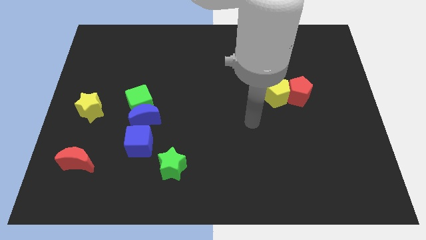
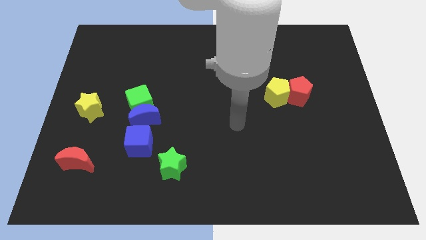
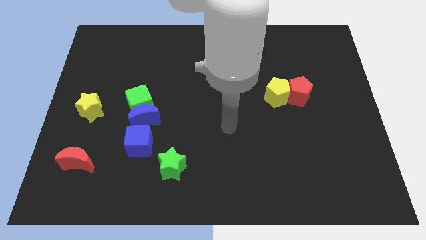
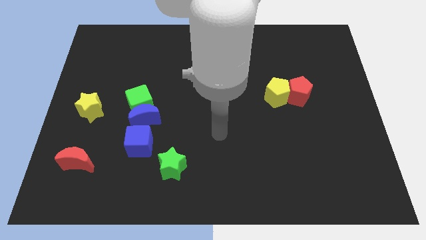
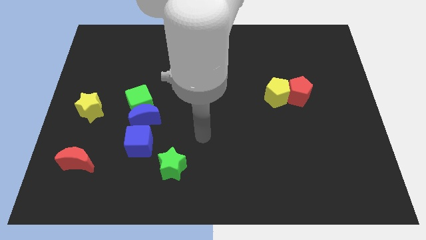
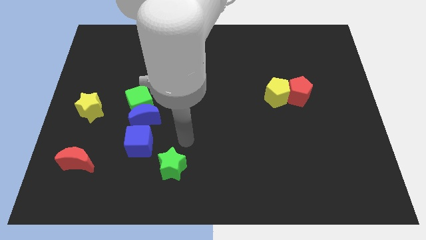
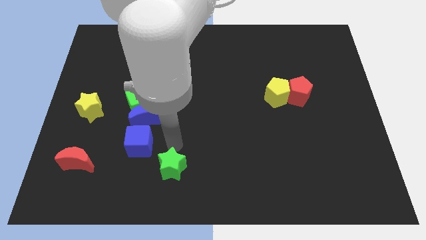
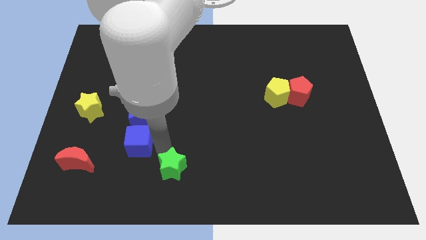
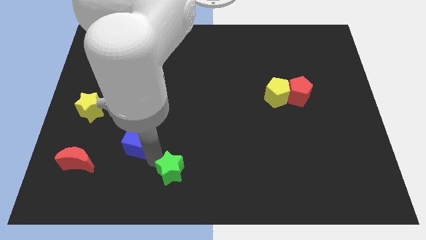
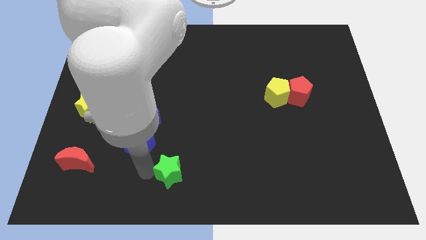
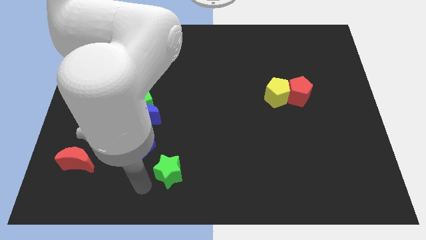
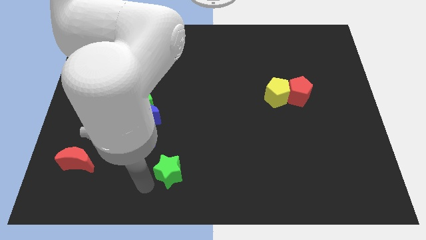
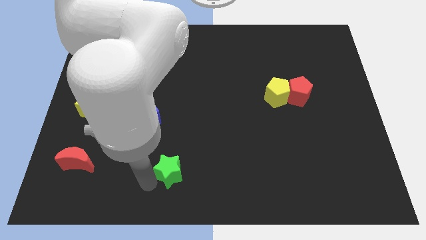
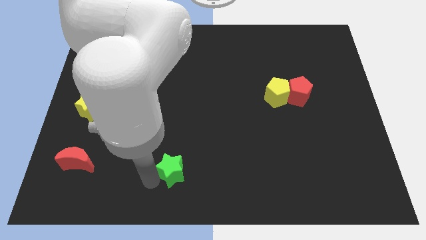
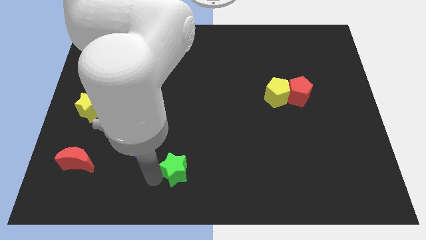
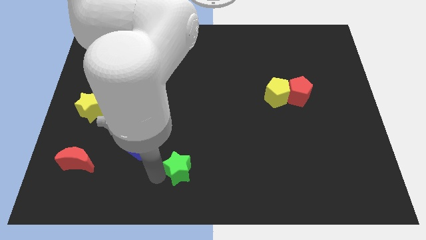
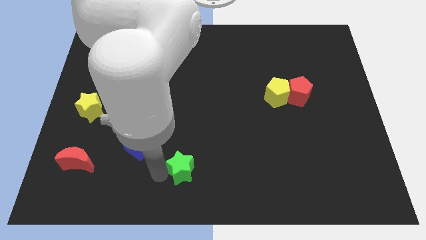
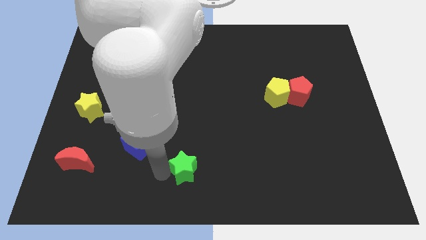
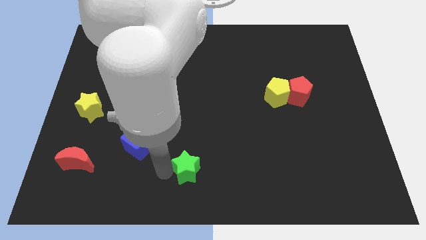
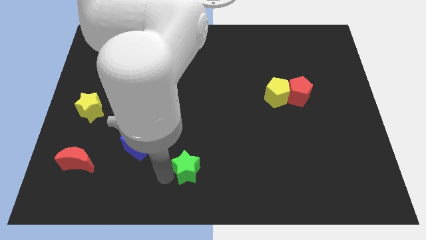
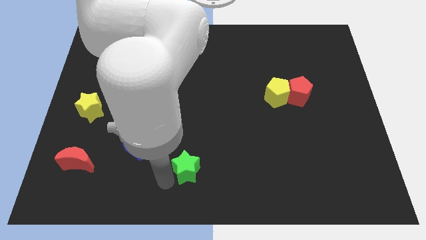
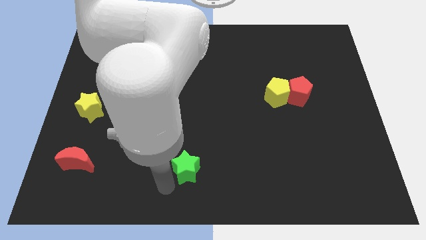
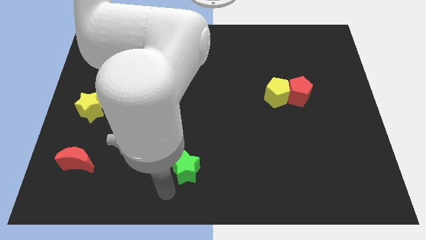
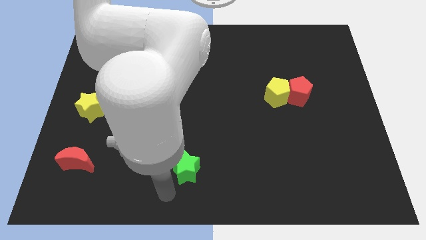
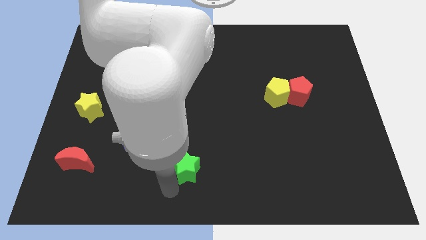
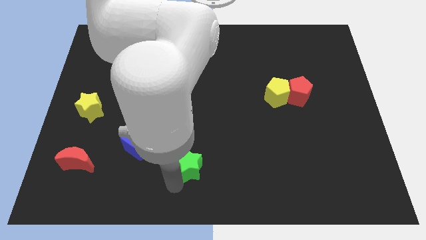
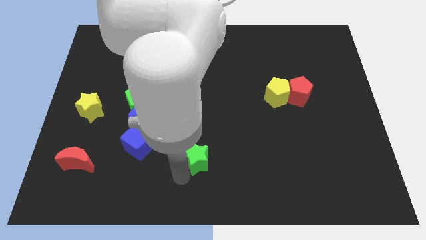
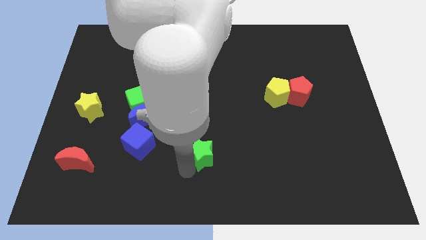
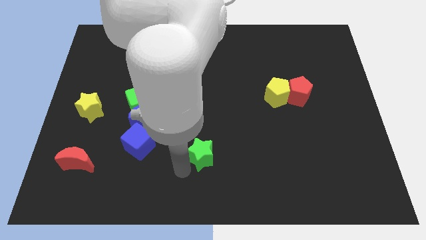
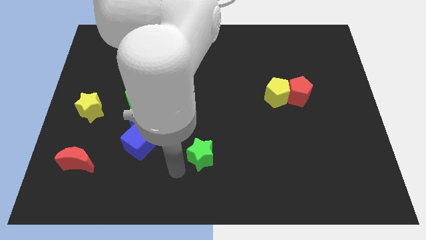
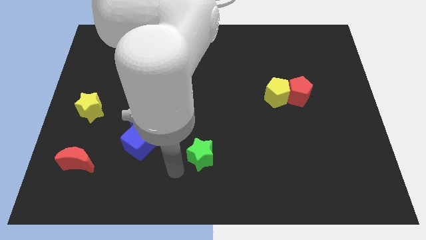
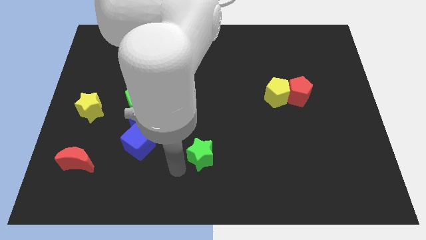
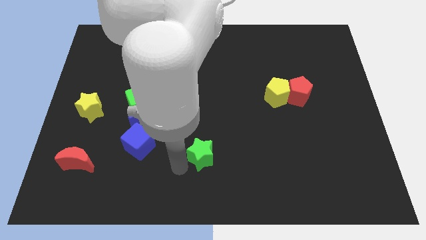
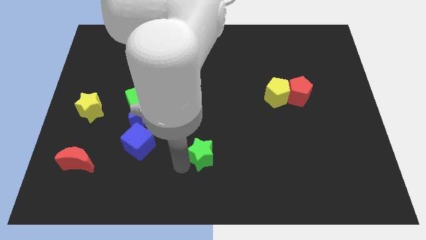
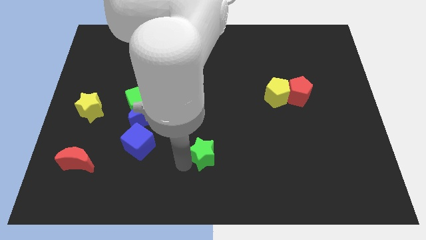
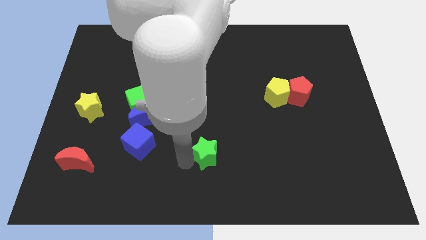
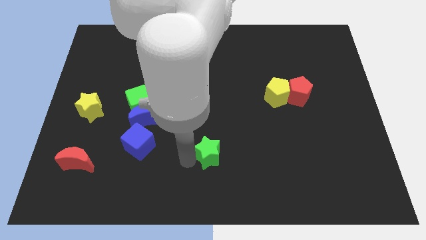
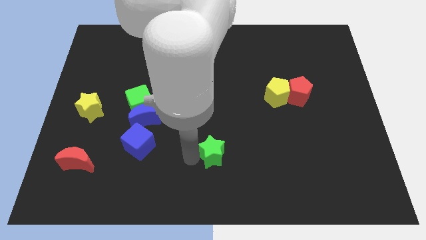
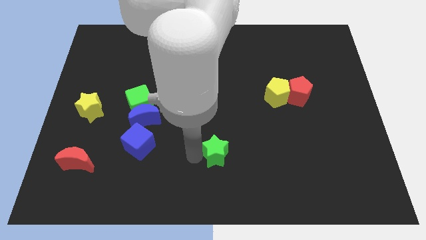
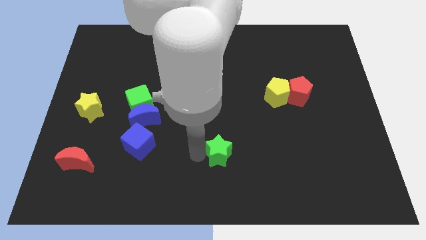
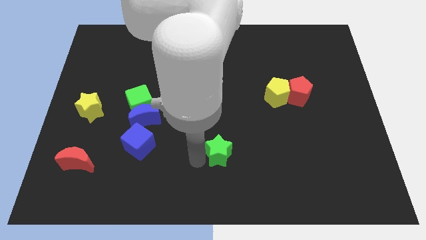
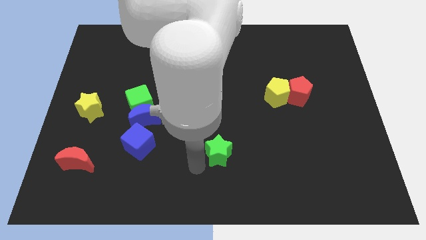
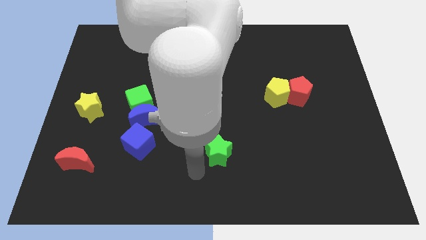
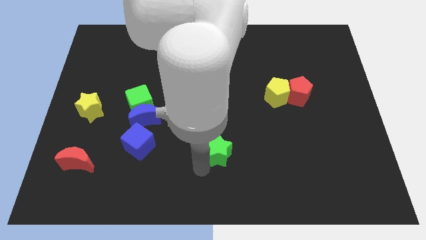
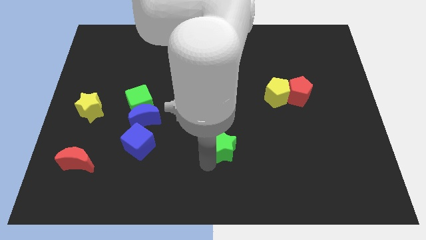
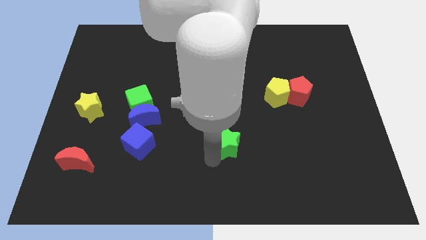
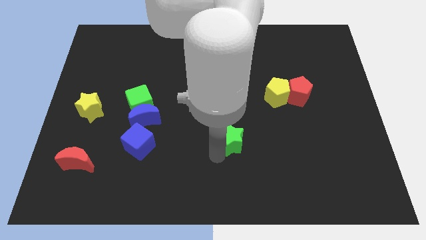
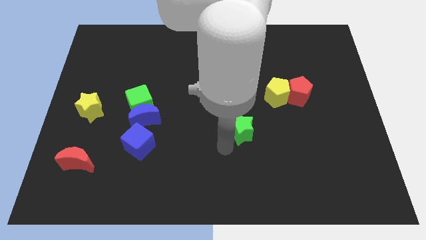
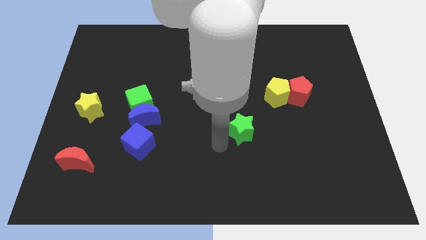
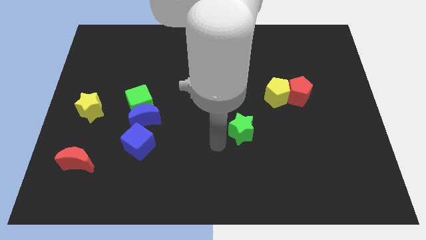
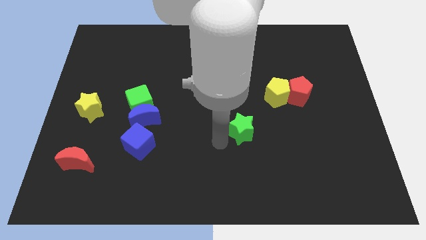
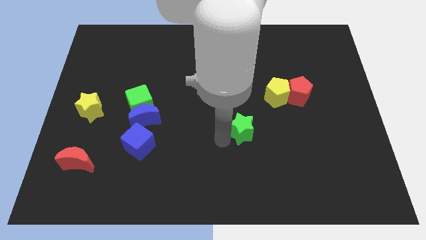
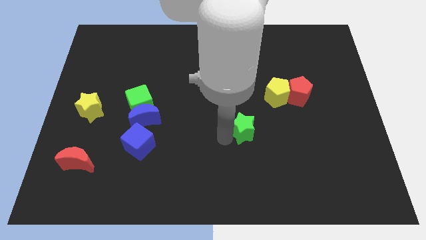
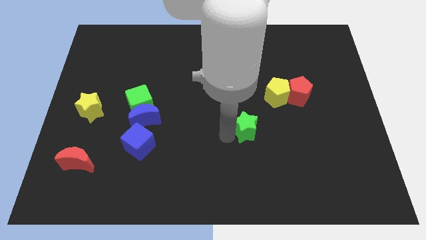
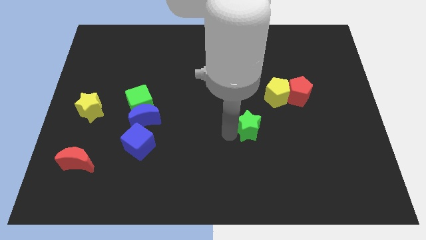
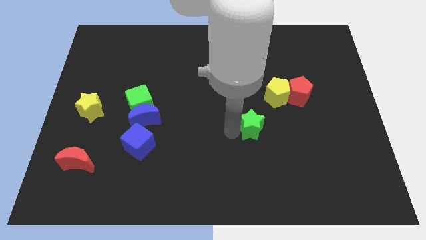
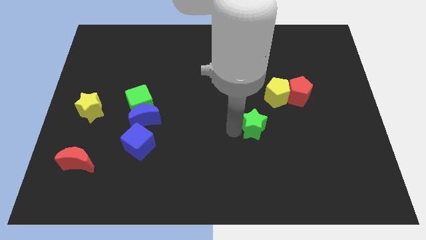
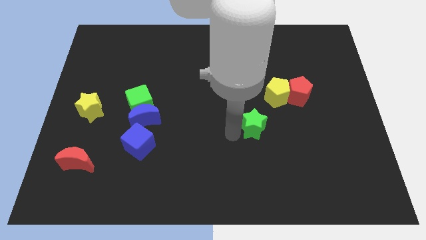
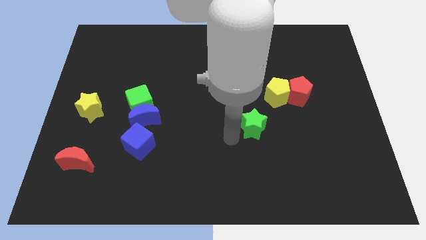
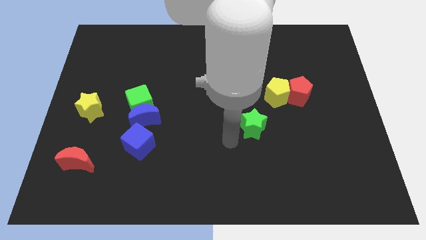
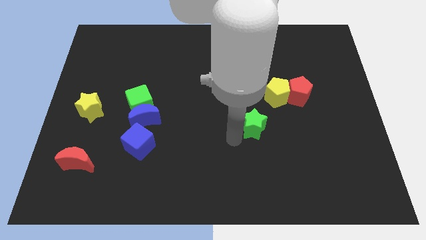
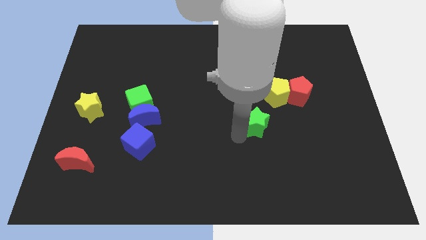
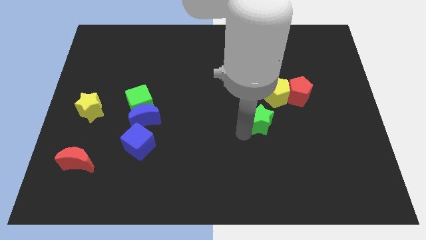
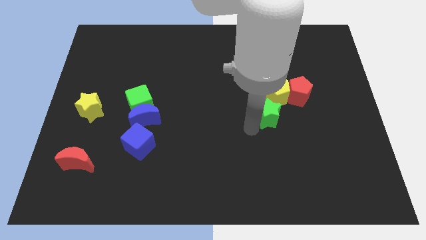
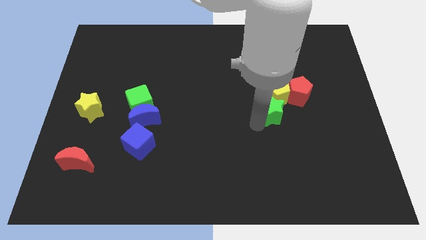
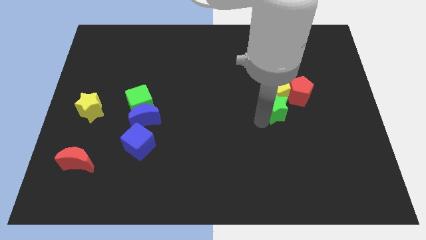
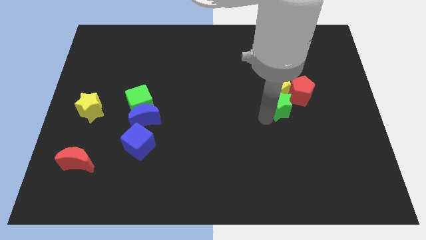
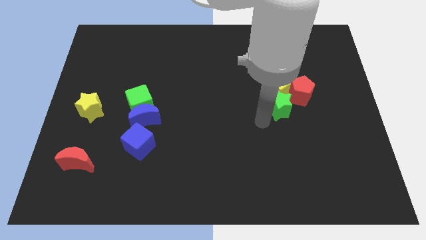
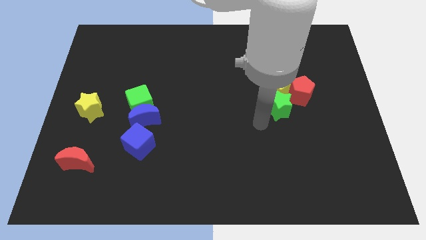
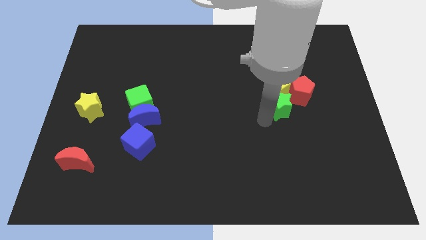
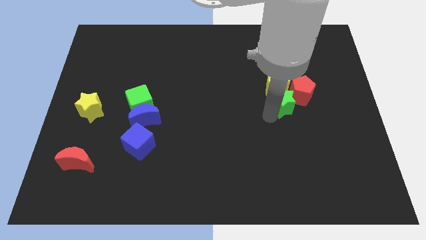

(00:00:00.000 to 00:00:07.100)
move the green star towards the red pentagon

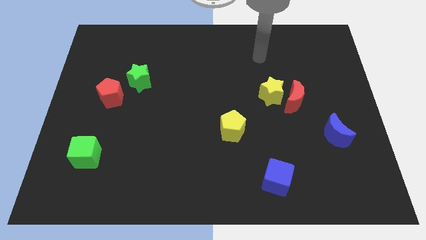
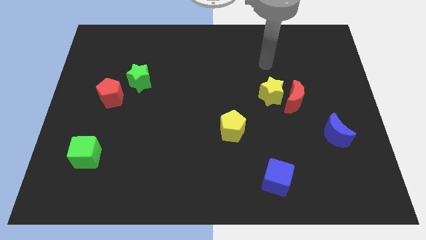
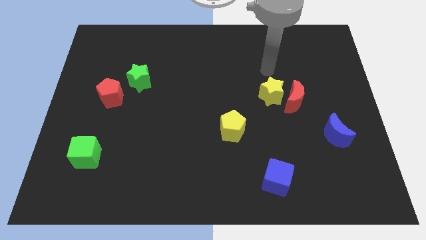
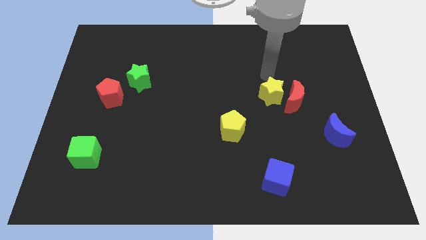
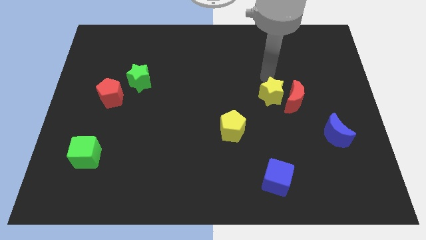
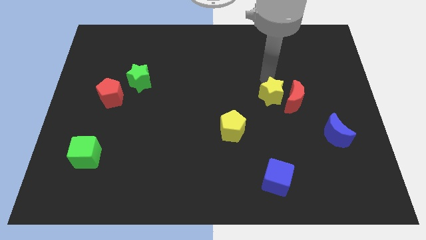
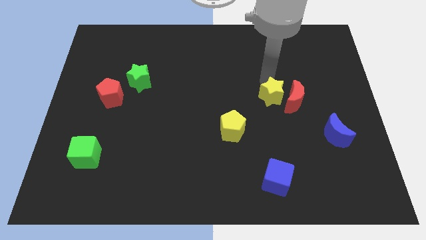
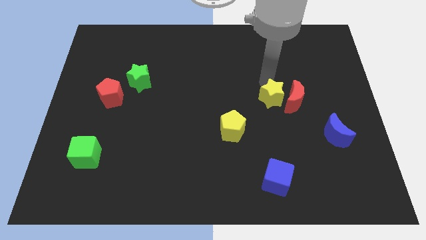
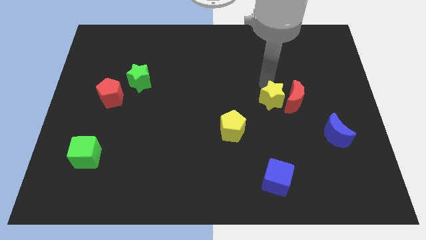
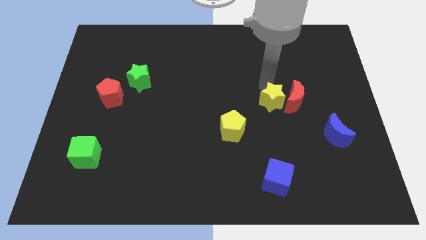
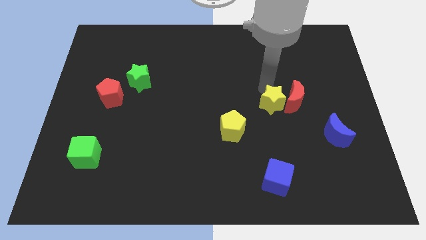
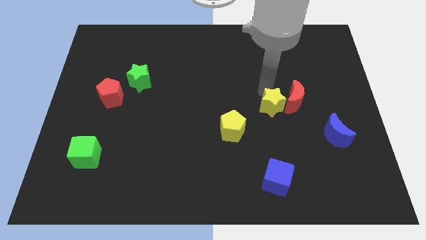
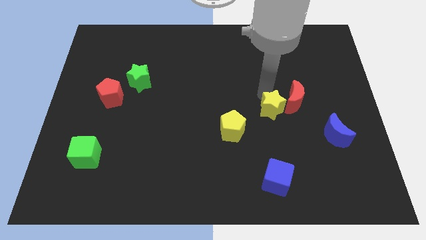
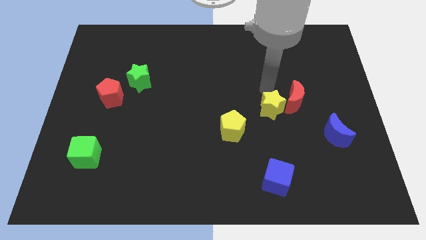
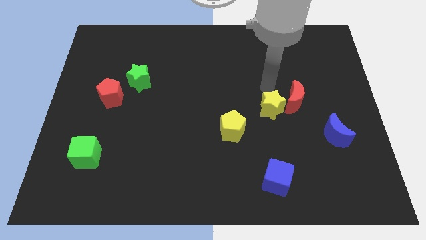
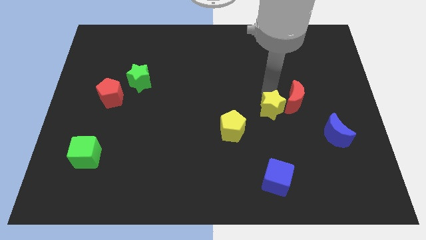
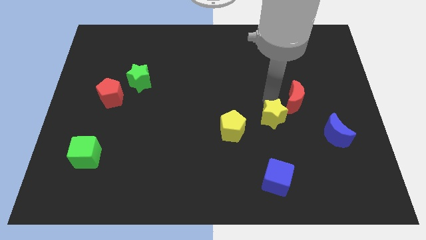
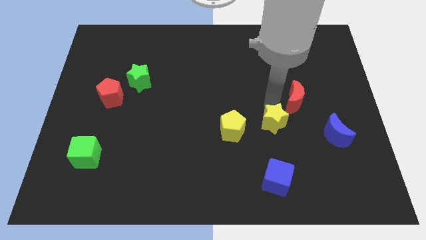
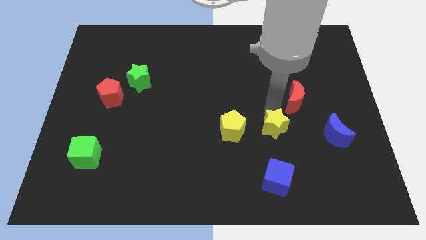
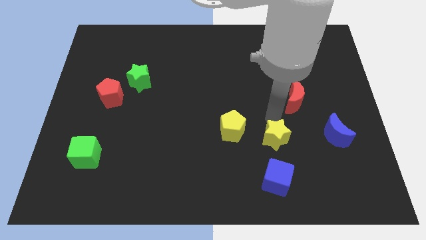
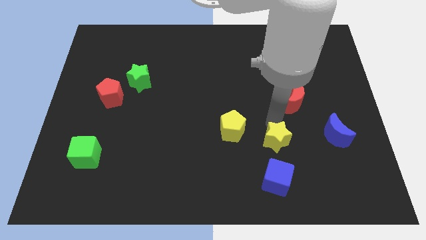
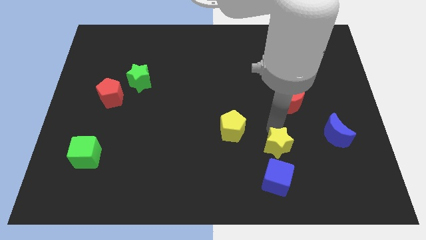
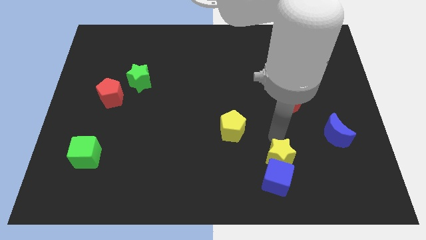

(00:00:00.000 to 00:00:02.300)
move the yellow star towards the blue cube
